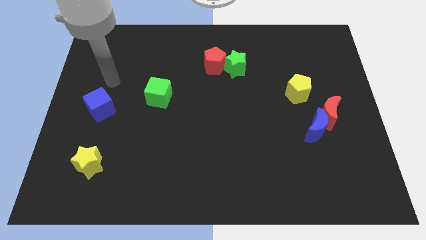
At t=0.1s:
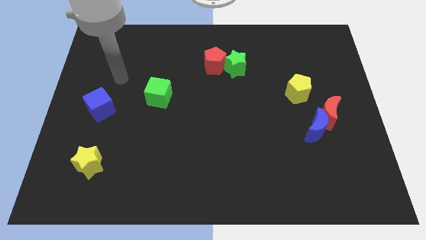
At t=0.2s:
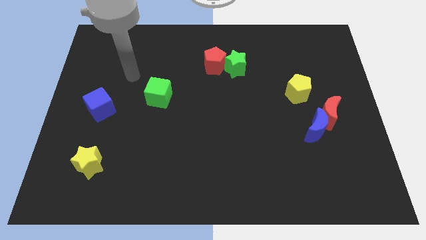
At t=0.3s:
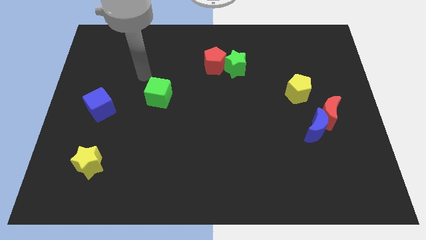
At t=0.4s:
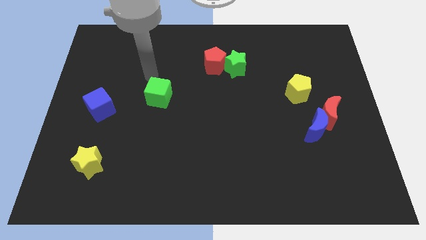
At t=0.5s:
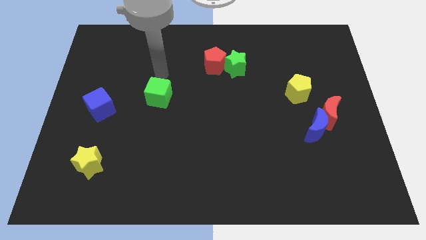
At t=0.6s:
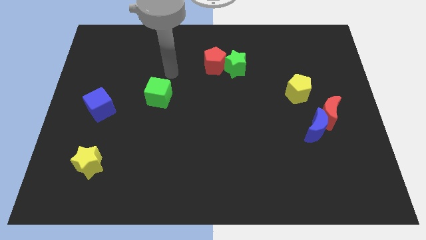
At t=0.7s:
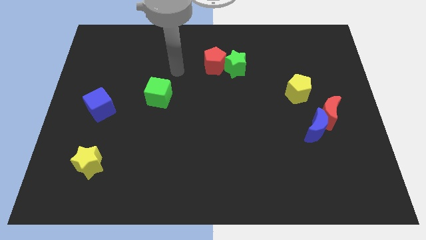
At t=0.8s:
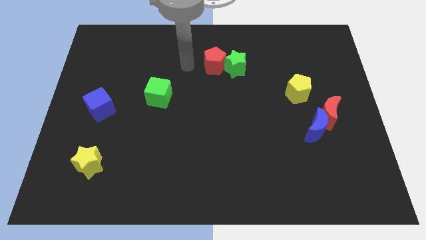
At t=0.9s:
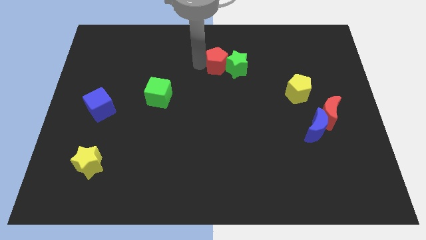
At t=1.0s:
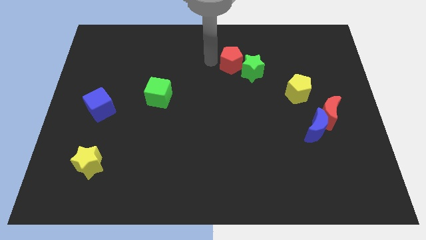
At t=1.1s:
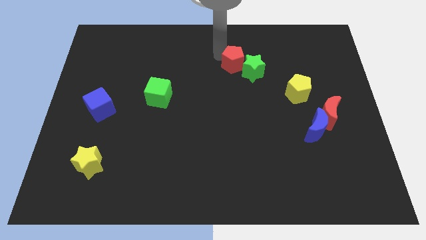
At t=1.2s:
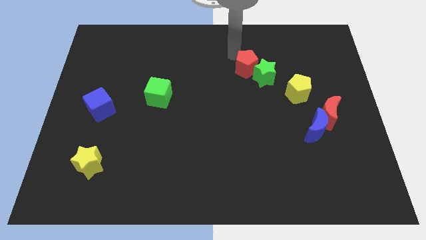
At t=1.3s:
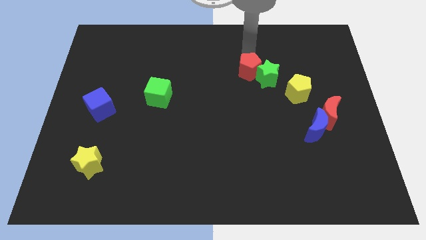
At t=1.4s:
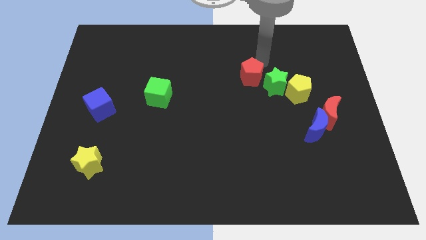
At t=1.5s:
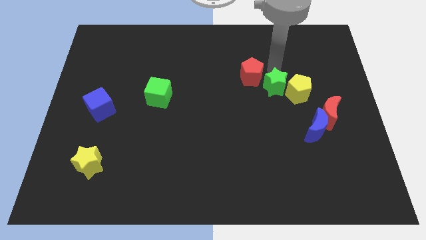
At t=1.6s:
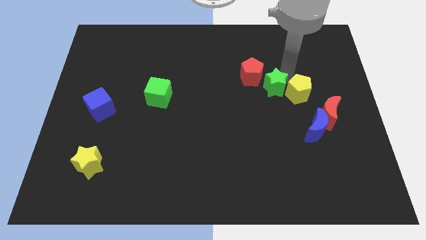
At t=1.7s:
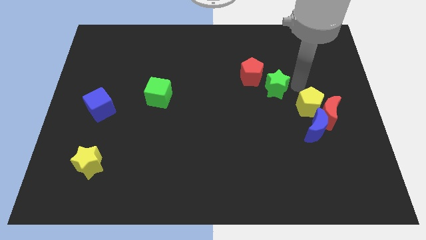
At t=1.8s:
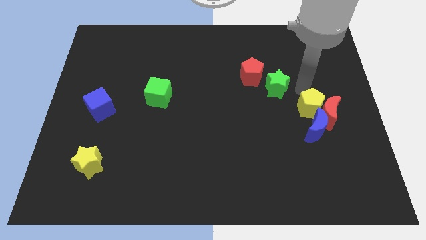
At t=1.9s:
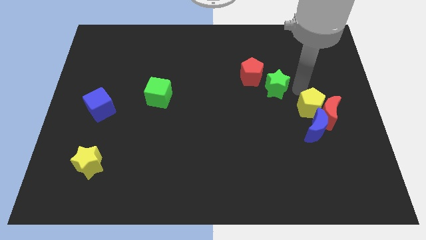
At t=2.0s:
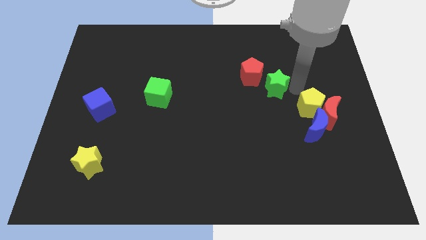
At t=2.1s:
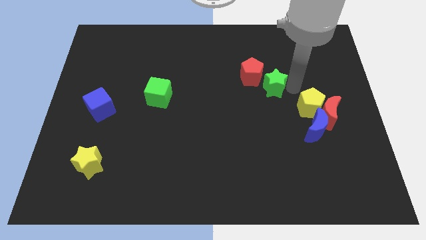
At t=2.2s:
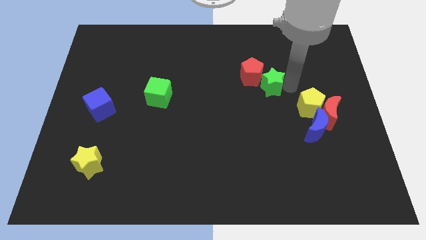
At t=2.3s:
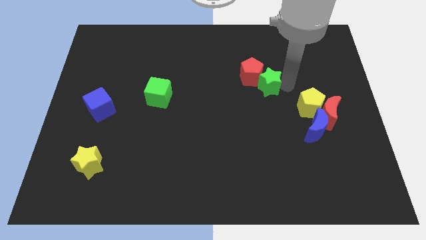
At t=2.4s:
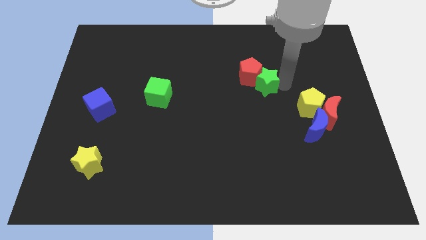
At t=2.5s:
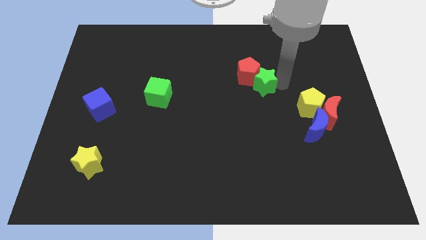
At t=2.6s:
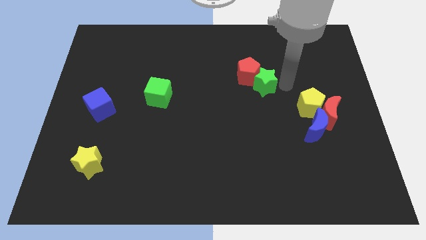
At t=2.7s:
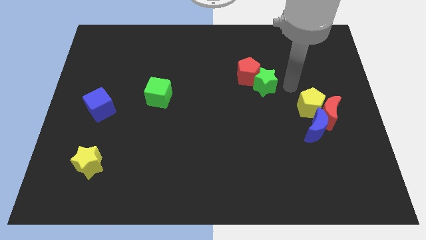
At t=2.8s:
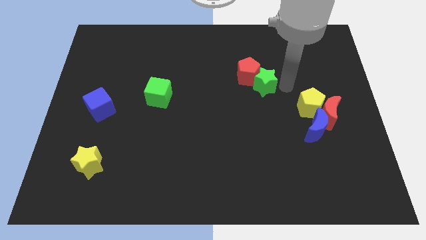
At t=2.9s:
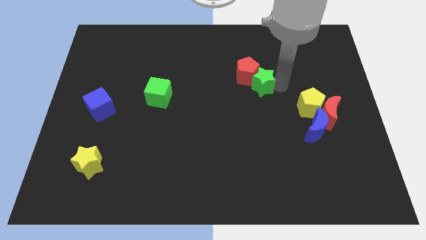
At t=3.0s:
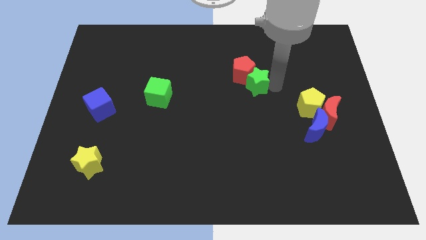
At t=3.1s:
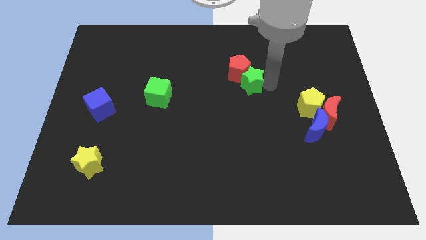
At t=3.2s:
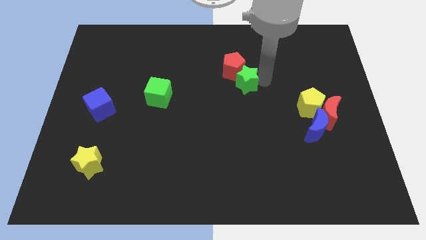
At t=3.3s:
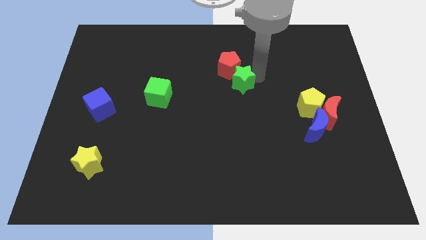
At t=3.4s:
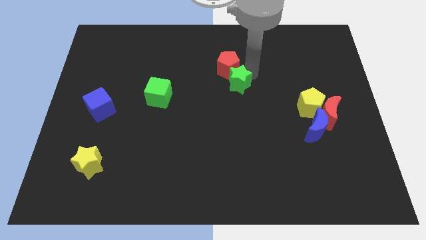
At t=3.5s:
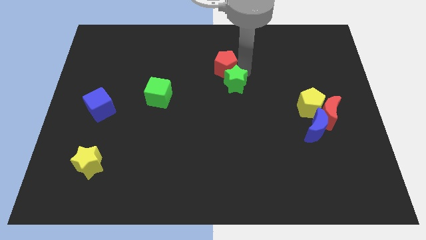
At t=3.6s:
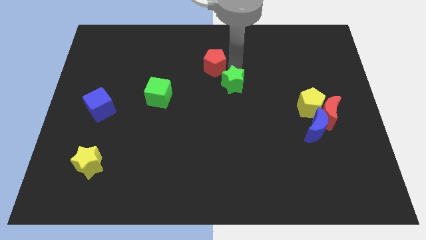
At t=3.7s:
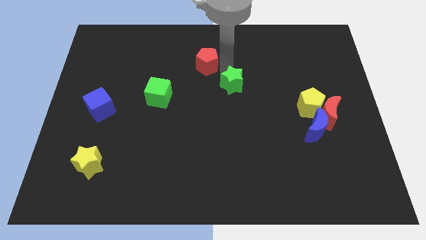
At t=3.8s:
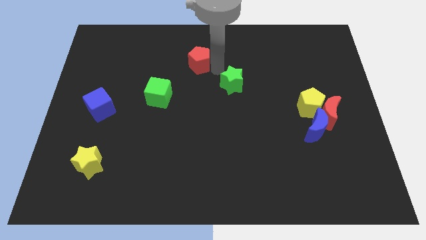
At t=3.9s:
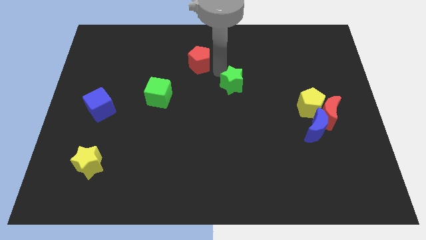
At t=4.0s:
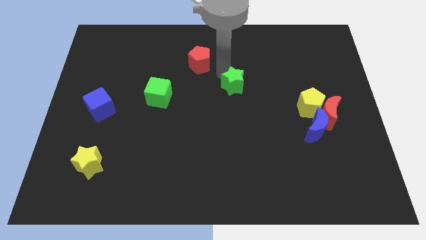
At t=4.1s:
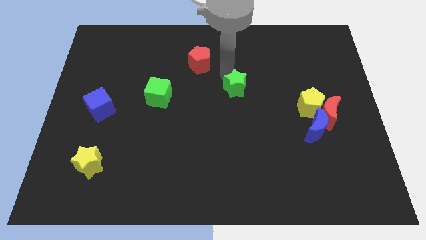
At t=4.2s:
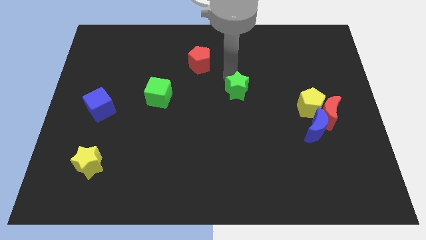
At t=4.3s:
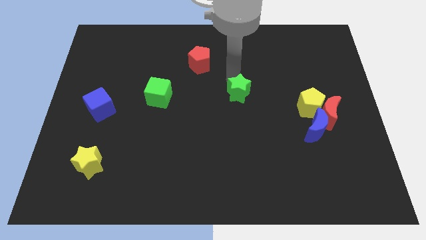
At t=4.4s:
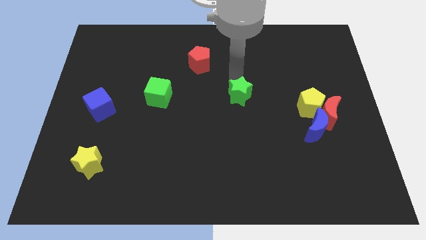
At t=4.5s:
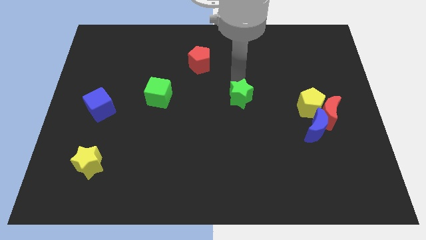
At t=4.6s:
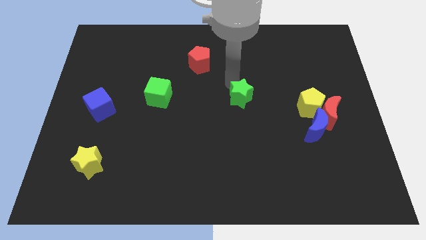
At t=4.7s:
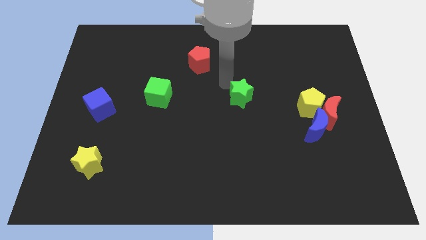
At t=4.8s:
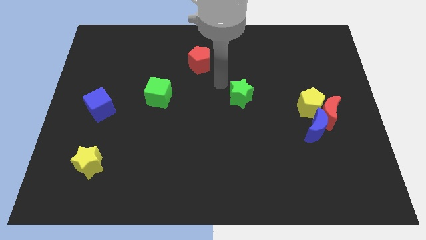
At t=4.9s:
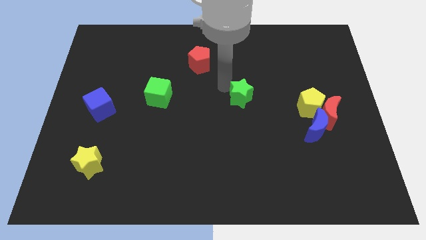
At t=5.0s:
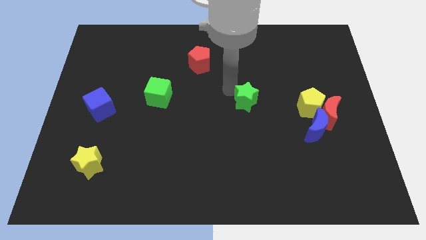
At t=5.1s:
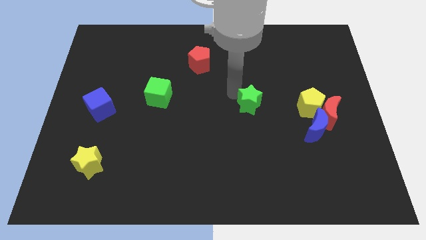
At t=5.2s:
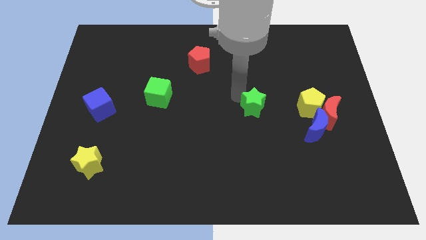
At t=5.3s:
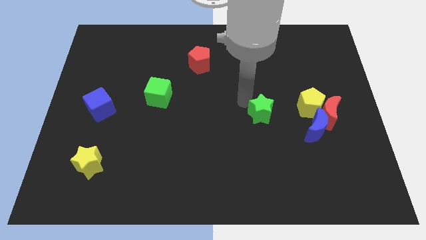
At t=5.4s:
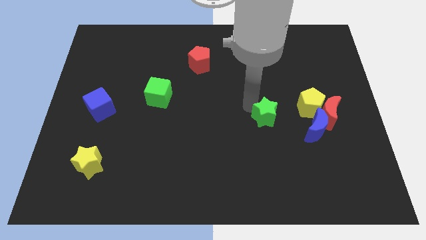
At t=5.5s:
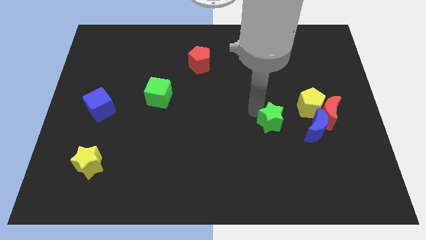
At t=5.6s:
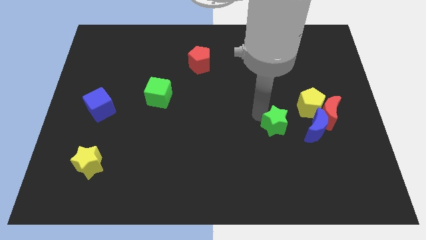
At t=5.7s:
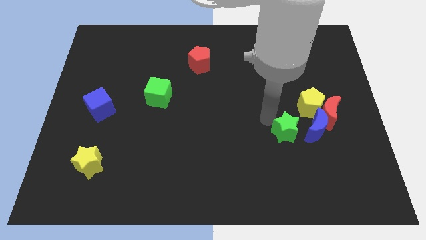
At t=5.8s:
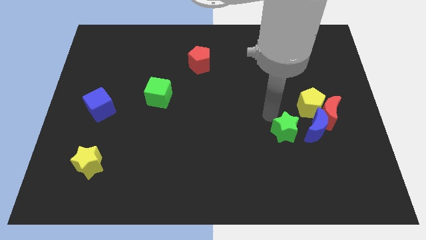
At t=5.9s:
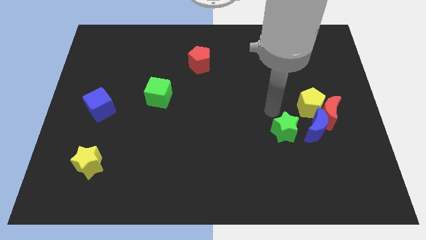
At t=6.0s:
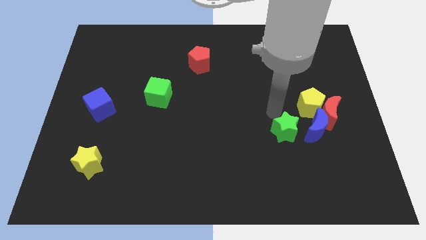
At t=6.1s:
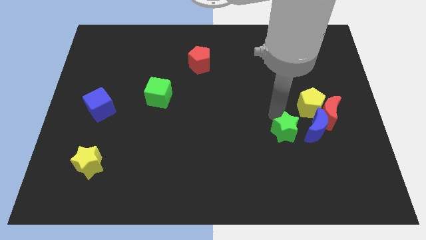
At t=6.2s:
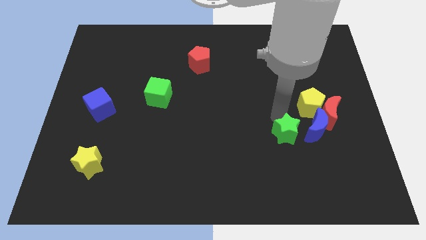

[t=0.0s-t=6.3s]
move the green star down and right

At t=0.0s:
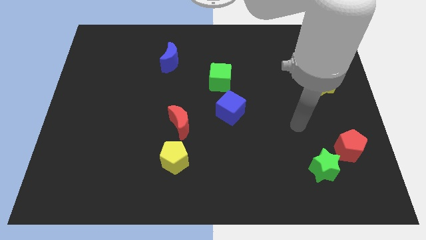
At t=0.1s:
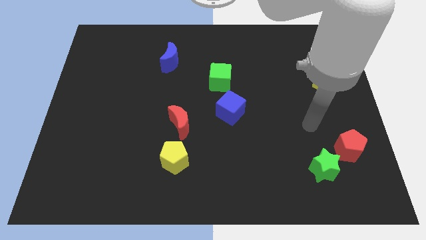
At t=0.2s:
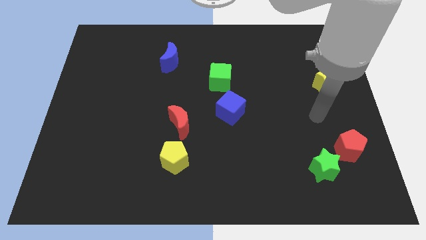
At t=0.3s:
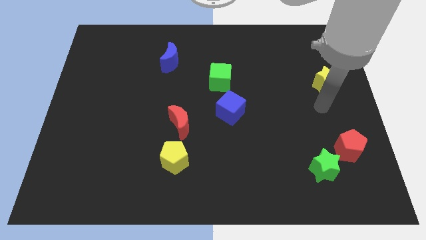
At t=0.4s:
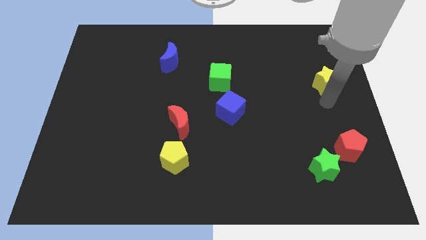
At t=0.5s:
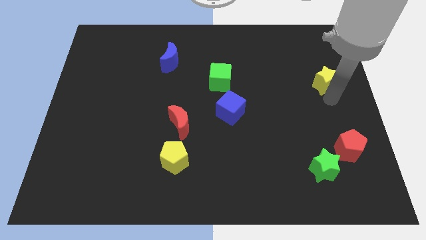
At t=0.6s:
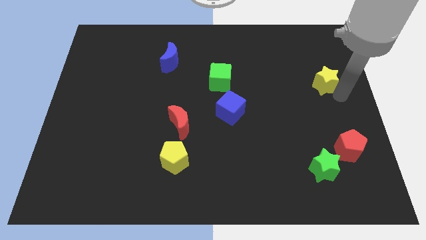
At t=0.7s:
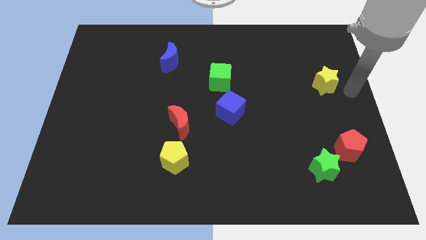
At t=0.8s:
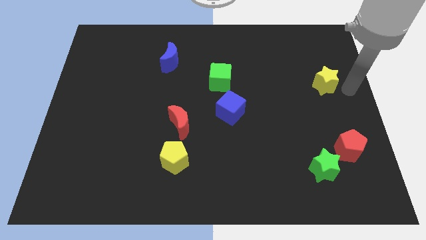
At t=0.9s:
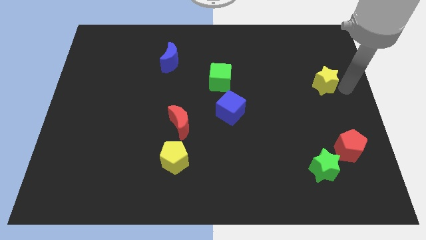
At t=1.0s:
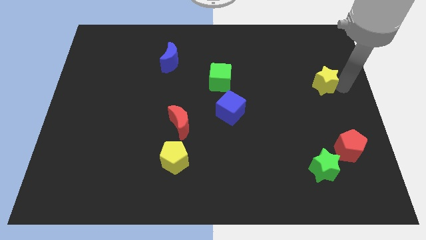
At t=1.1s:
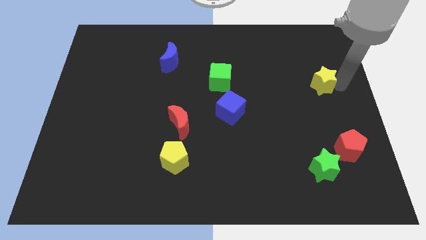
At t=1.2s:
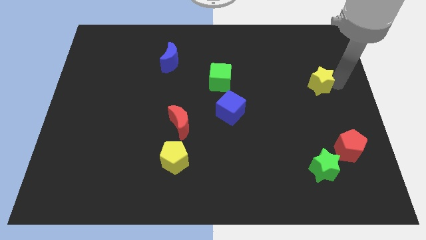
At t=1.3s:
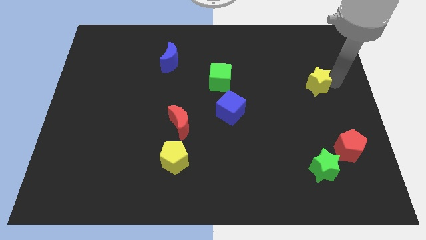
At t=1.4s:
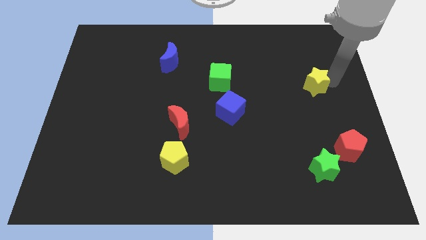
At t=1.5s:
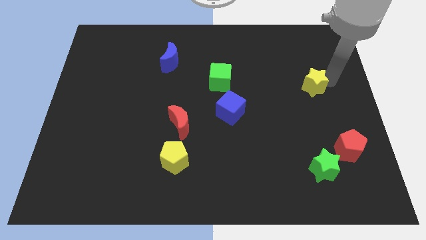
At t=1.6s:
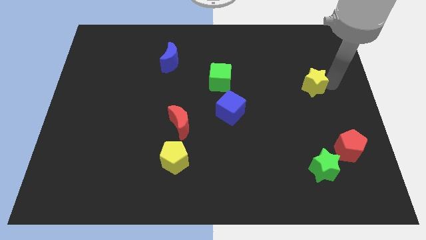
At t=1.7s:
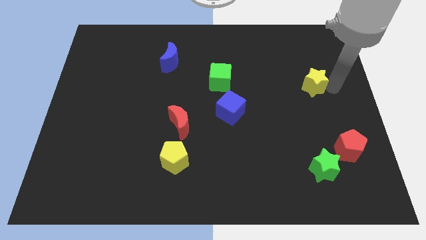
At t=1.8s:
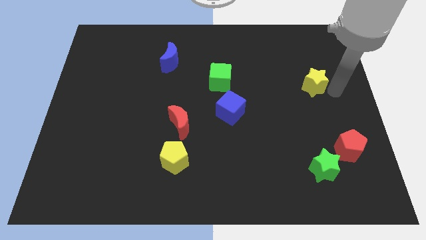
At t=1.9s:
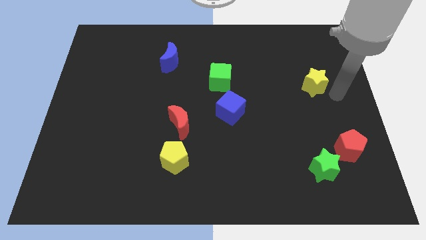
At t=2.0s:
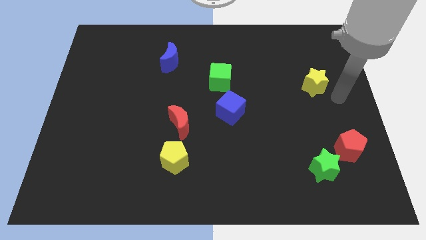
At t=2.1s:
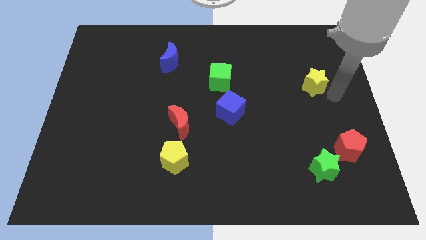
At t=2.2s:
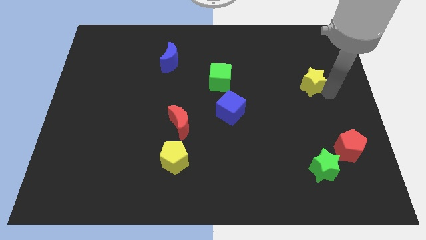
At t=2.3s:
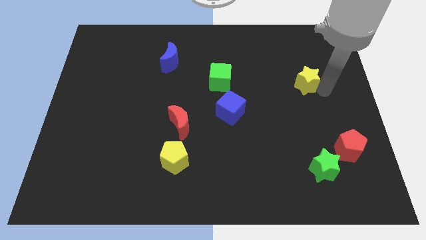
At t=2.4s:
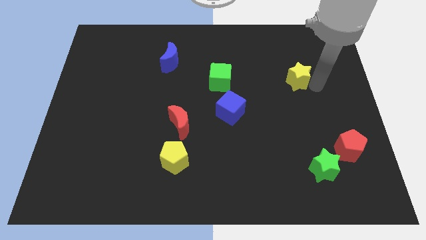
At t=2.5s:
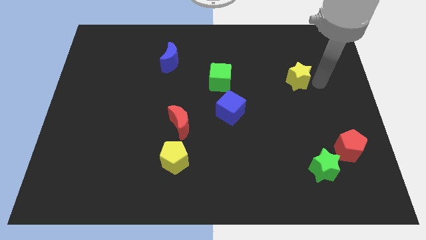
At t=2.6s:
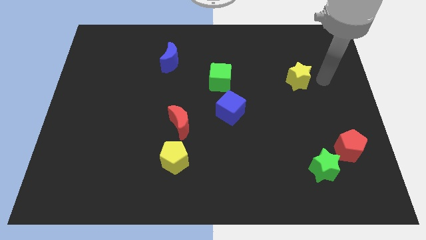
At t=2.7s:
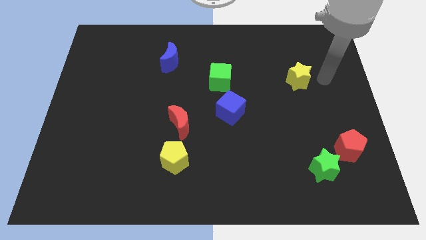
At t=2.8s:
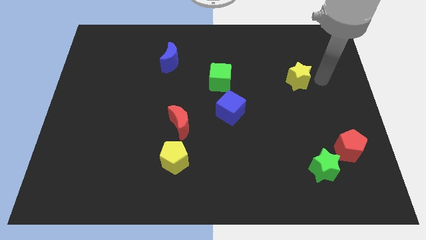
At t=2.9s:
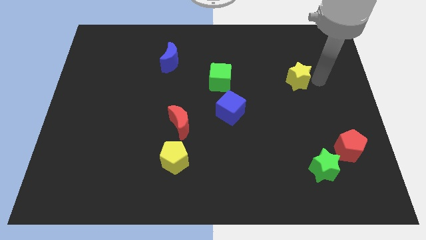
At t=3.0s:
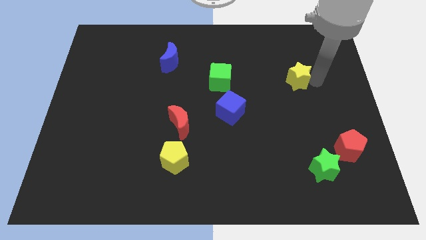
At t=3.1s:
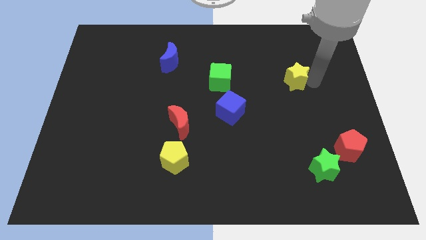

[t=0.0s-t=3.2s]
slightly slide the yellow star left
